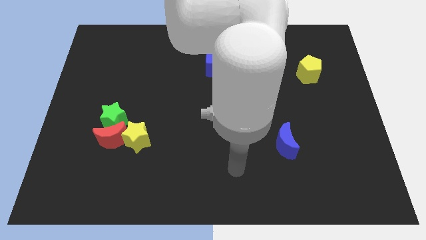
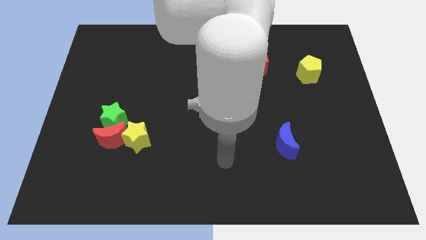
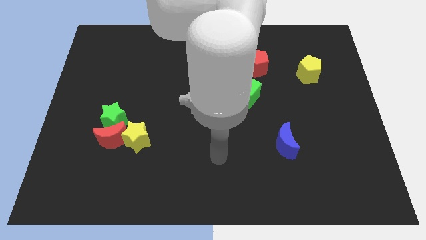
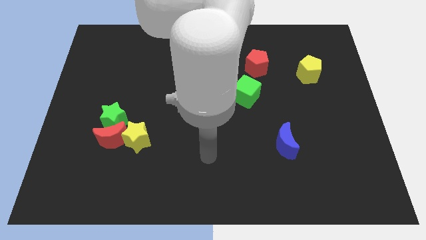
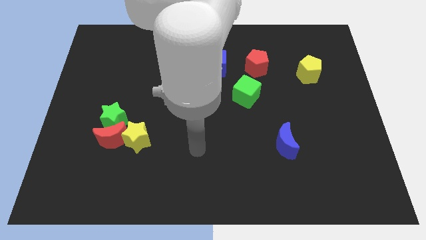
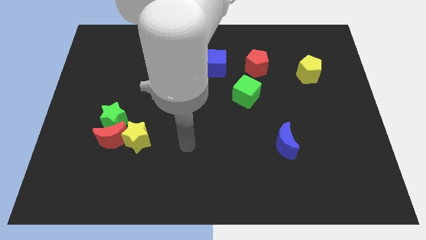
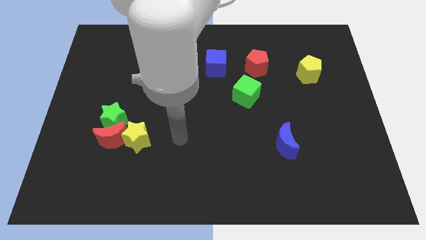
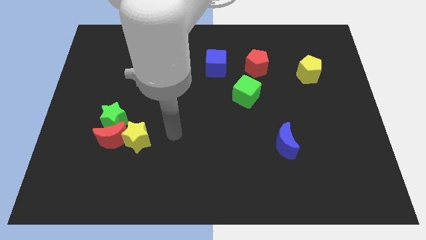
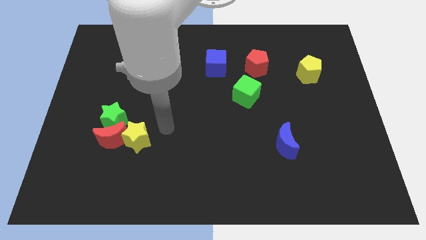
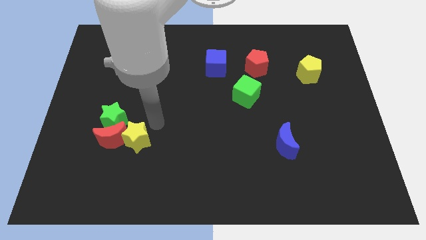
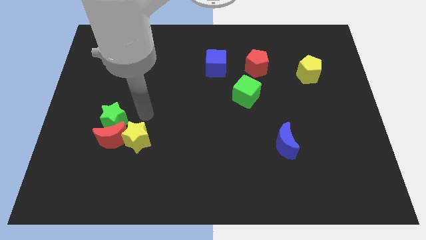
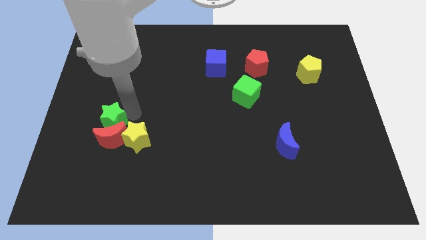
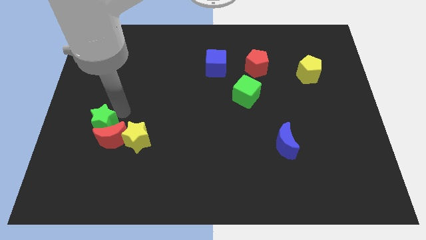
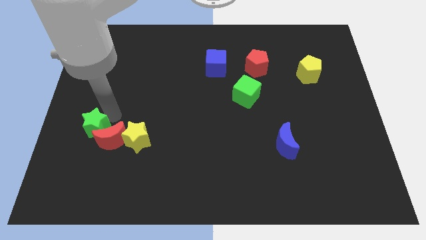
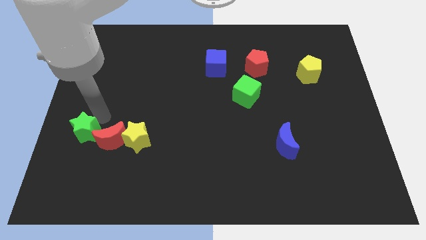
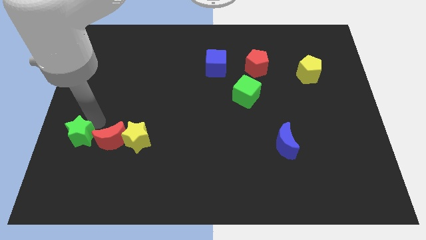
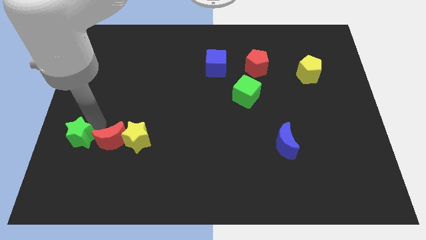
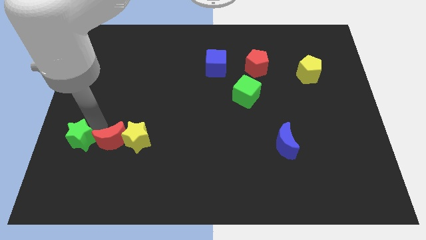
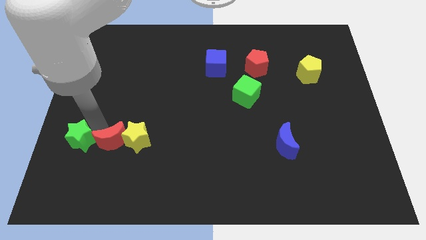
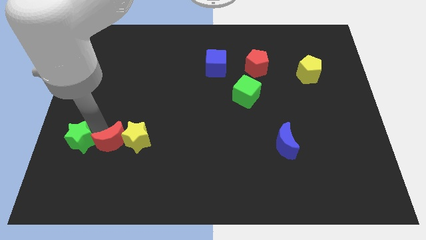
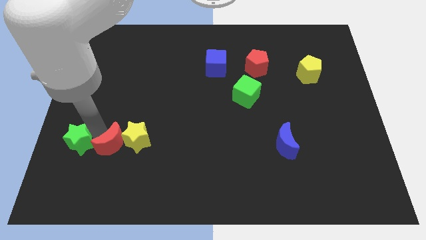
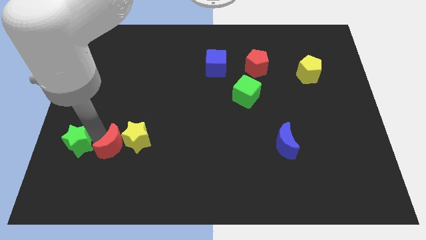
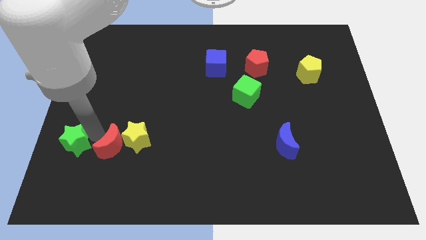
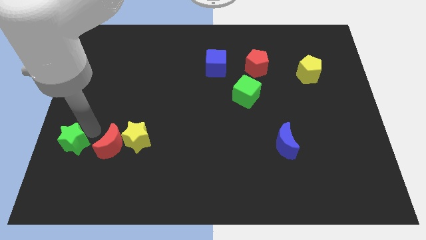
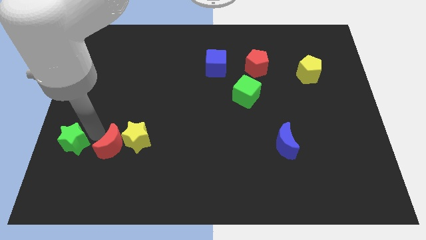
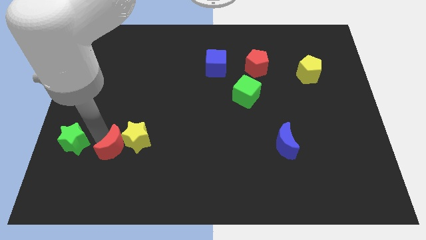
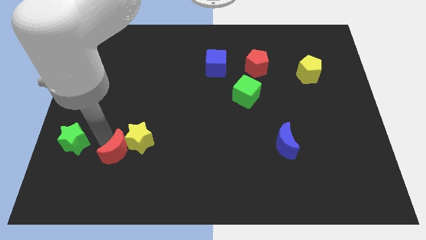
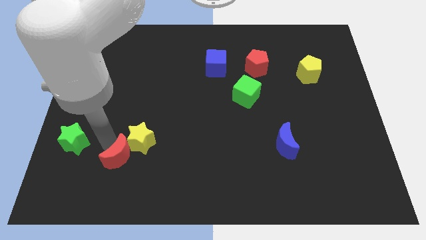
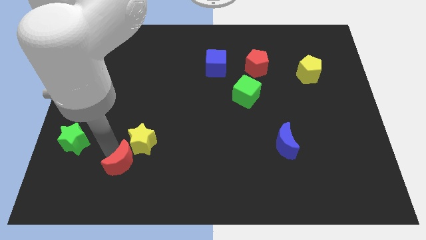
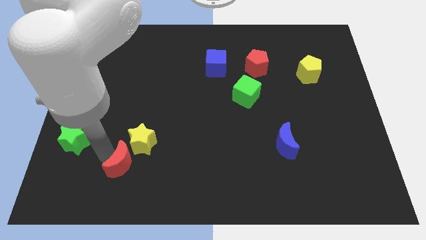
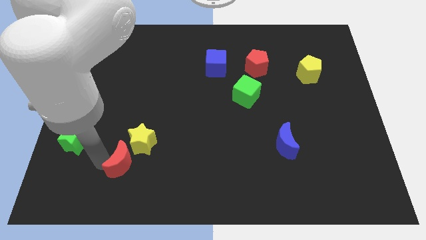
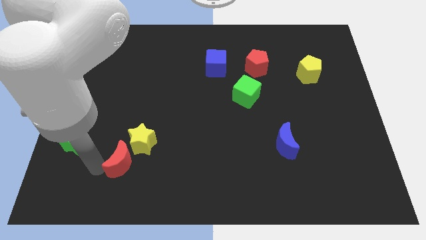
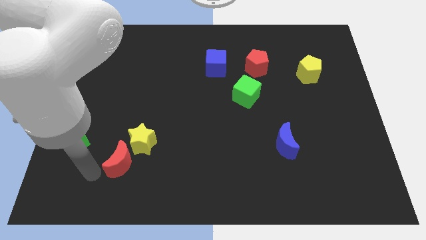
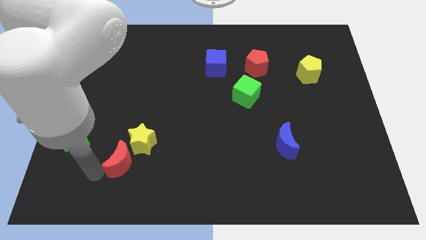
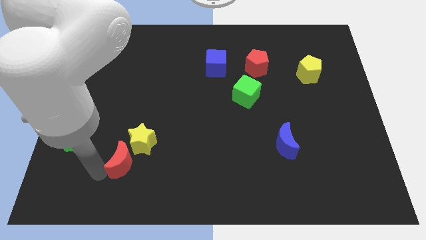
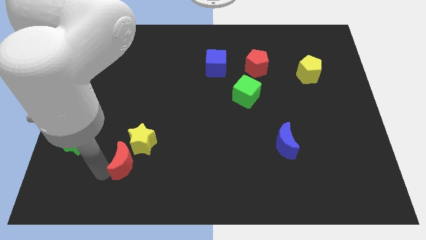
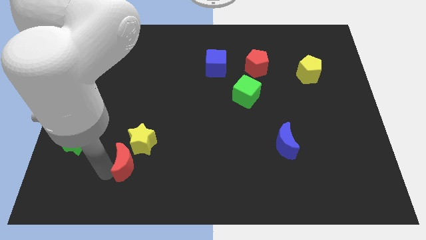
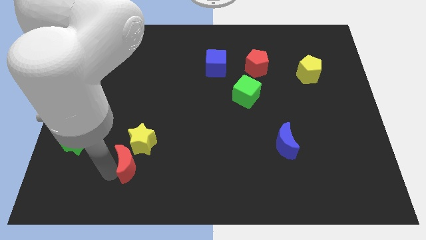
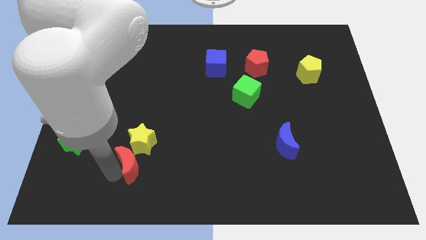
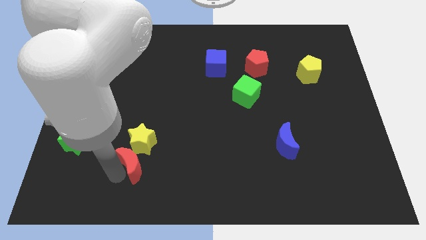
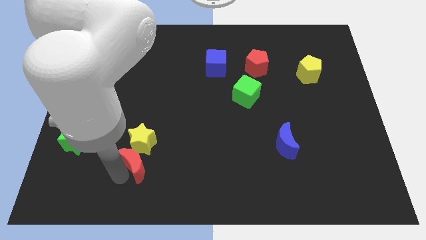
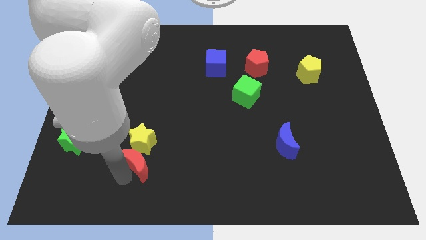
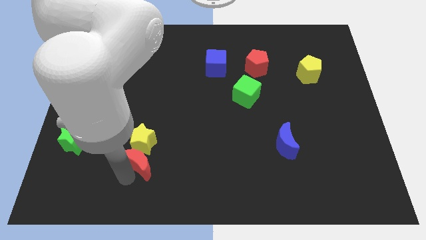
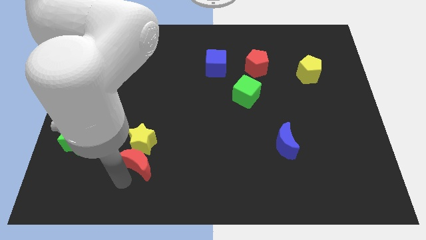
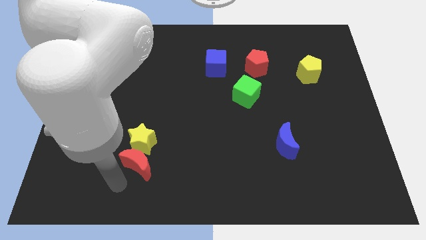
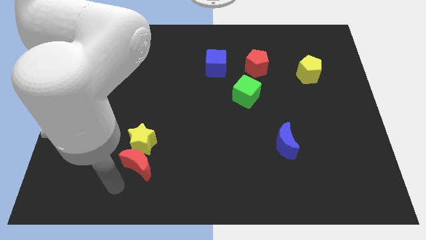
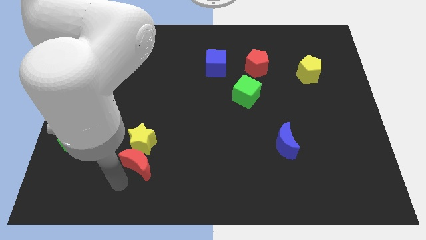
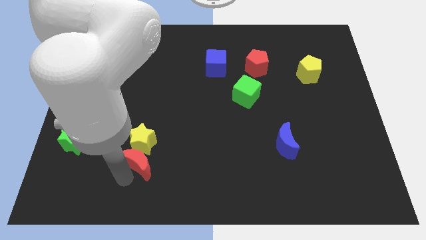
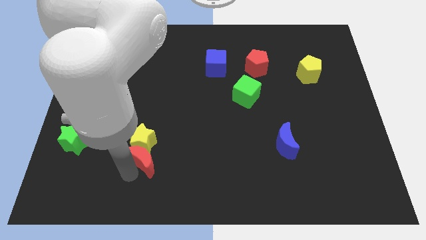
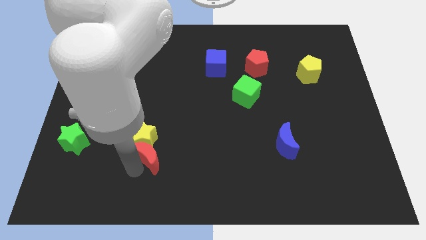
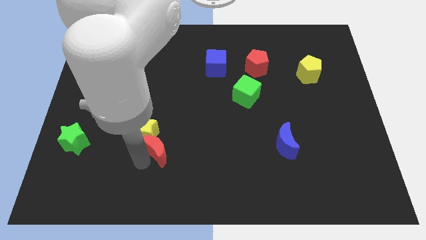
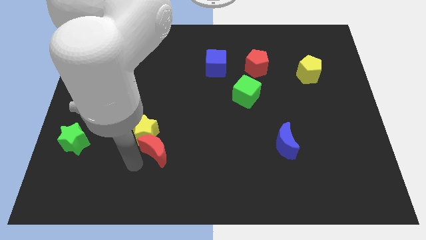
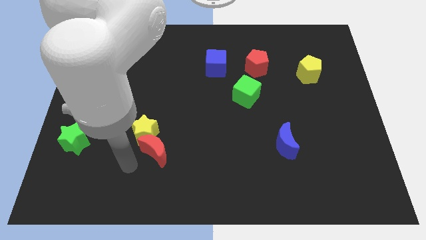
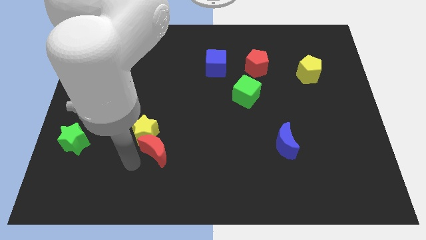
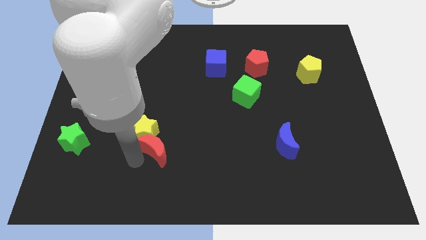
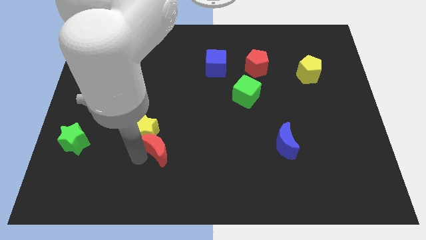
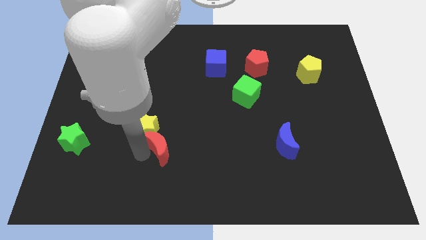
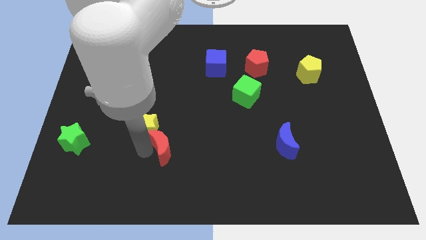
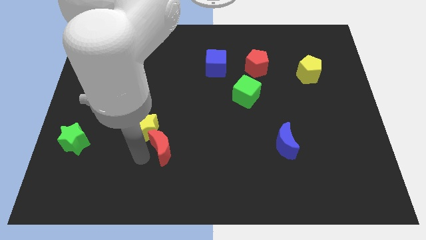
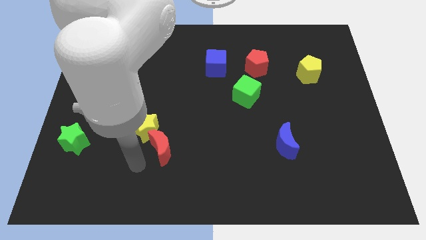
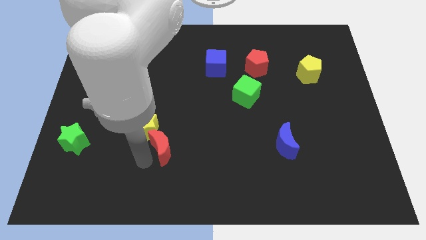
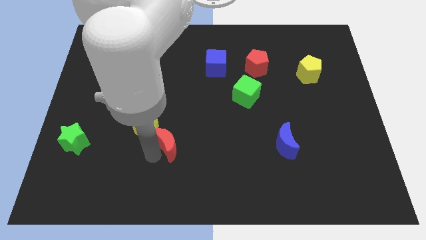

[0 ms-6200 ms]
move the red moon just right of the yellow star

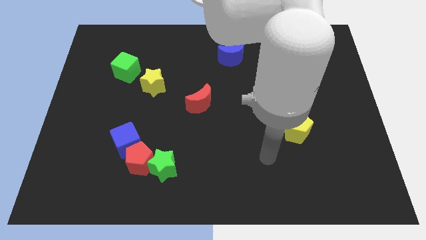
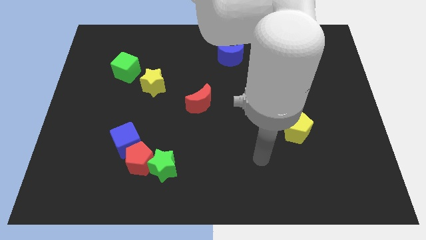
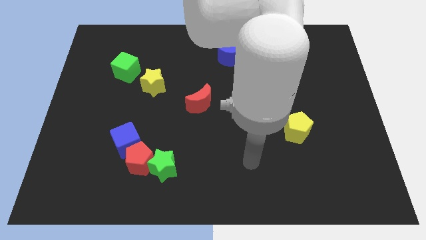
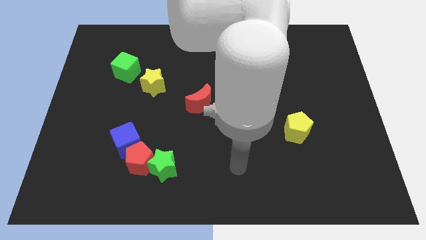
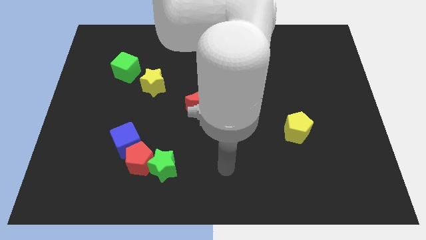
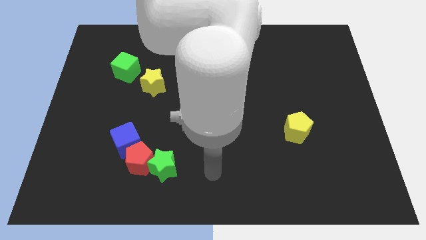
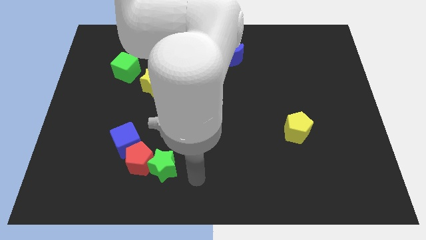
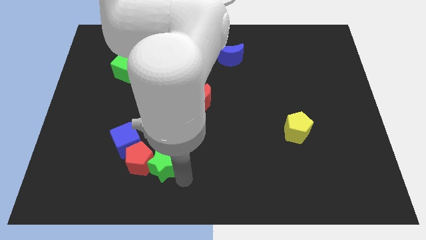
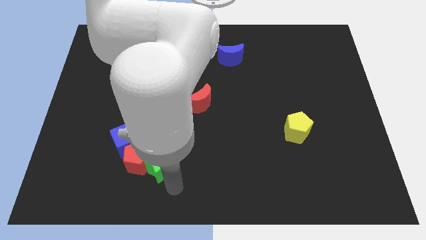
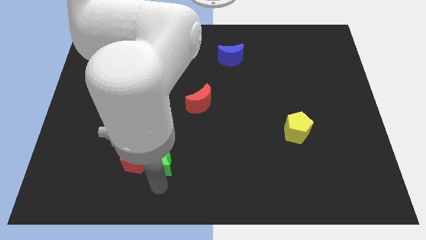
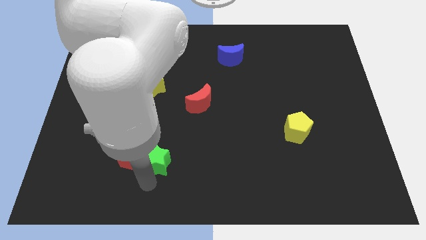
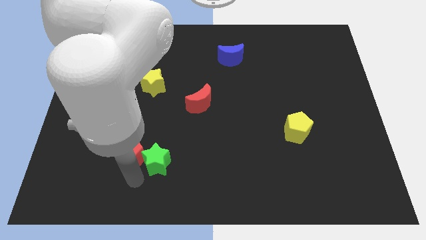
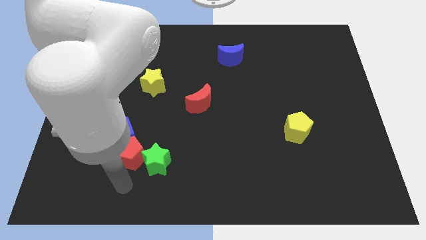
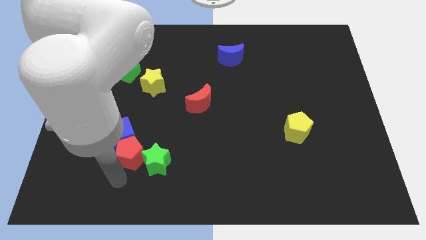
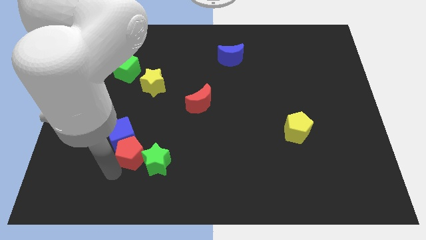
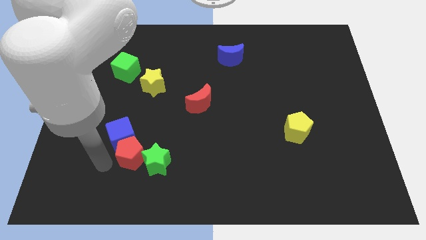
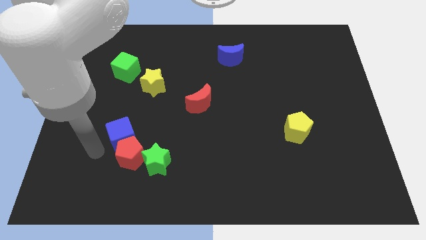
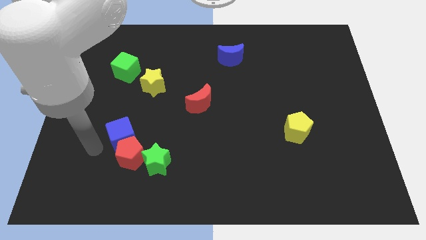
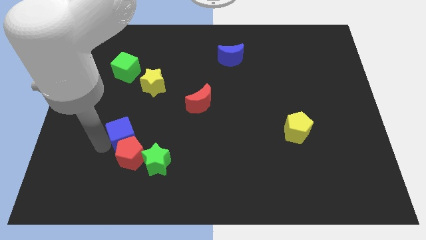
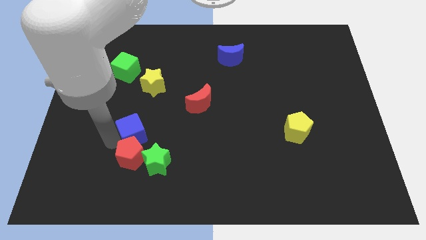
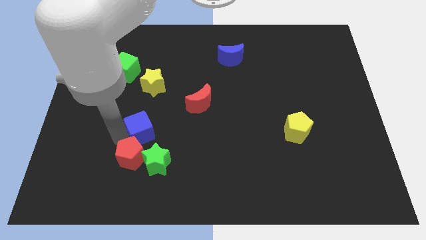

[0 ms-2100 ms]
put the blue cube to the top side of the green star
